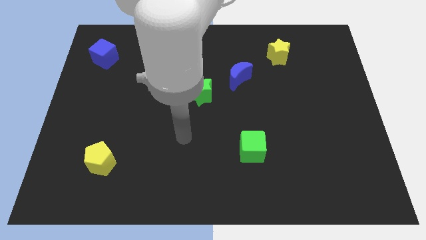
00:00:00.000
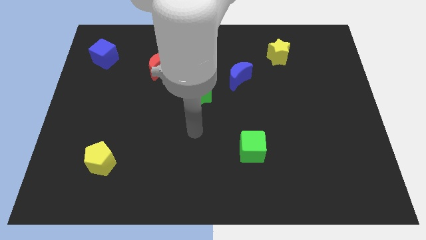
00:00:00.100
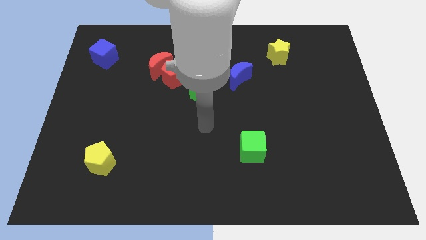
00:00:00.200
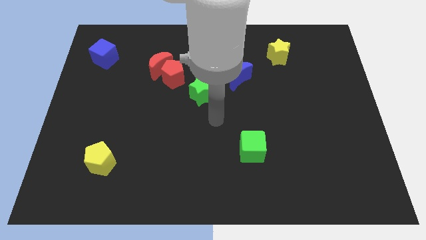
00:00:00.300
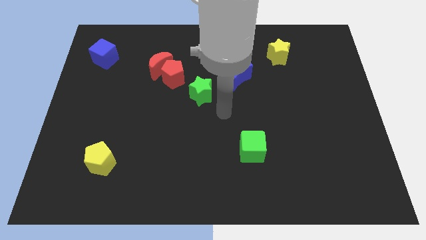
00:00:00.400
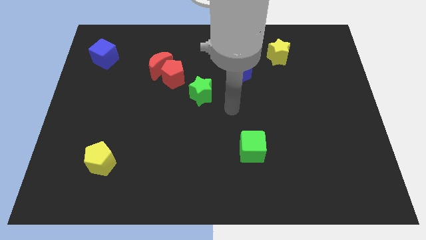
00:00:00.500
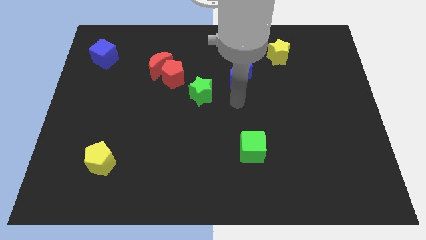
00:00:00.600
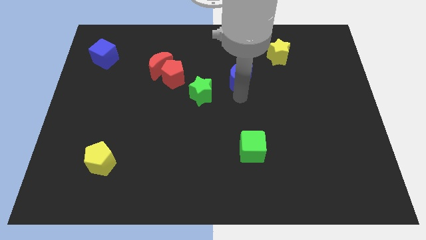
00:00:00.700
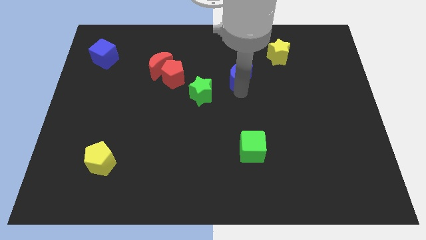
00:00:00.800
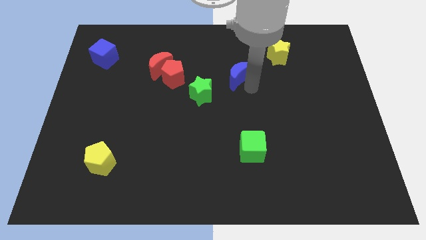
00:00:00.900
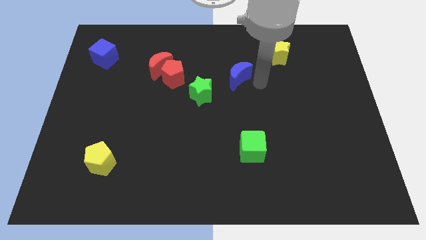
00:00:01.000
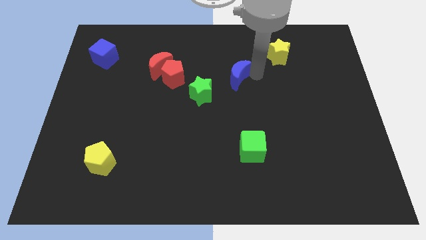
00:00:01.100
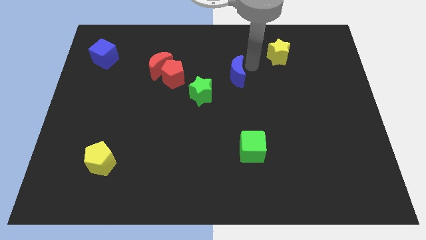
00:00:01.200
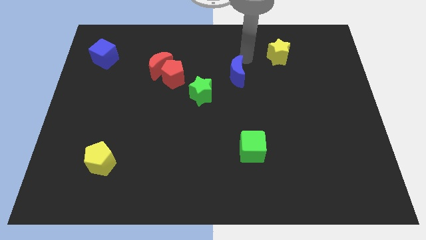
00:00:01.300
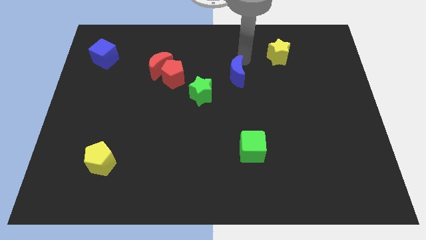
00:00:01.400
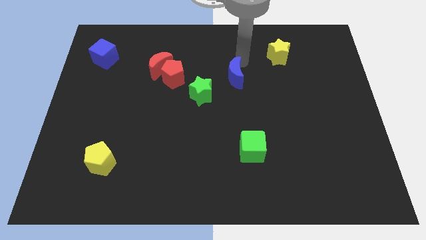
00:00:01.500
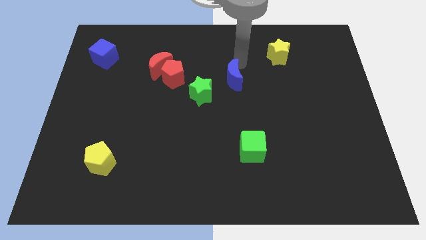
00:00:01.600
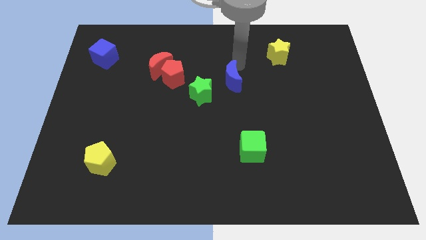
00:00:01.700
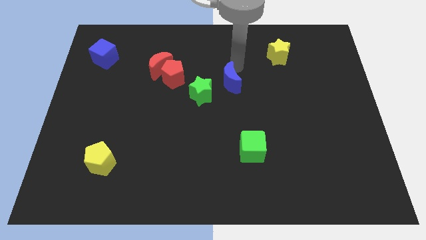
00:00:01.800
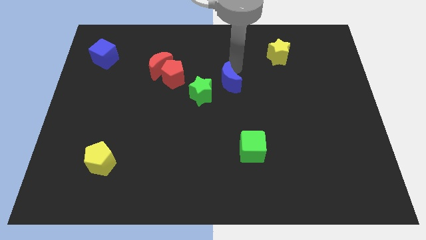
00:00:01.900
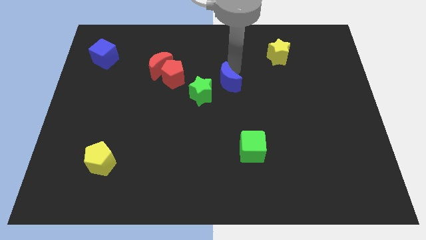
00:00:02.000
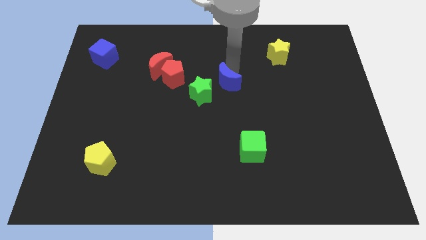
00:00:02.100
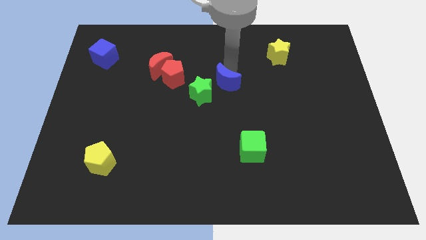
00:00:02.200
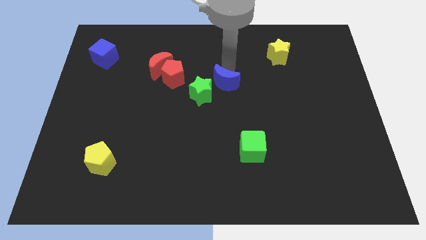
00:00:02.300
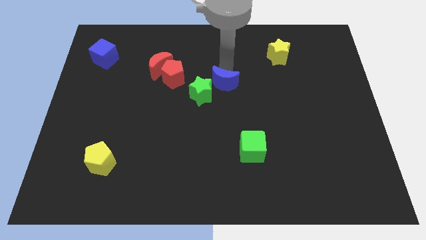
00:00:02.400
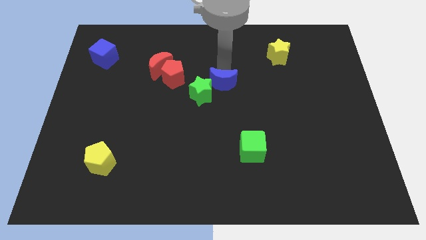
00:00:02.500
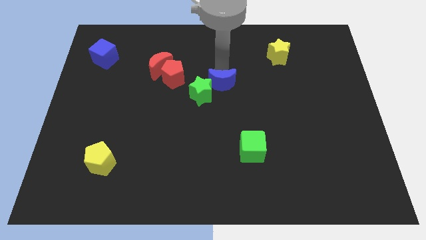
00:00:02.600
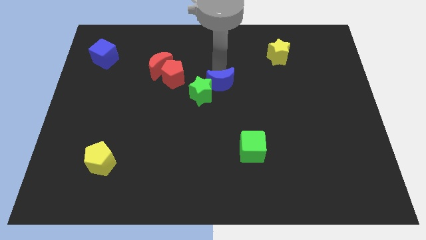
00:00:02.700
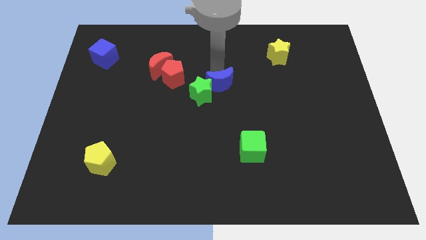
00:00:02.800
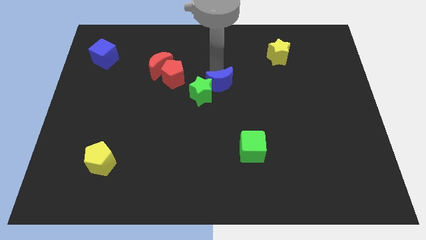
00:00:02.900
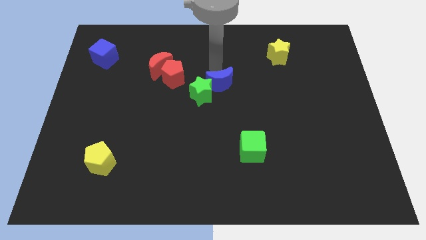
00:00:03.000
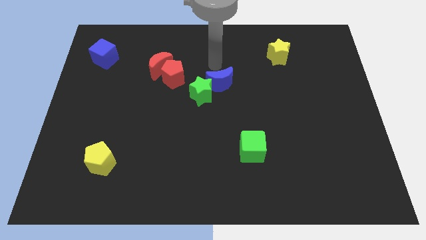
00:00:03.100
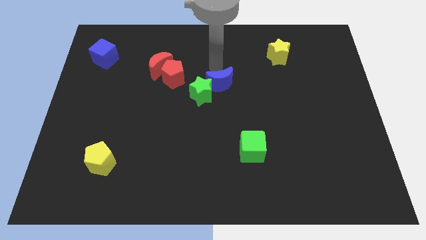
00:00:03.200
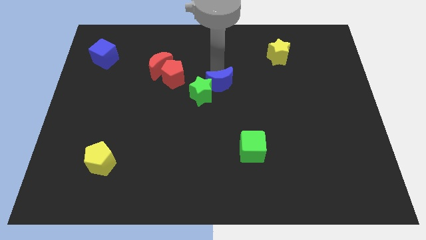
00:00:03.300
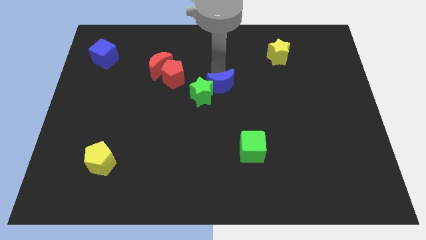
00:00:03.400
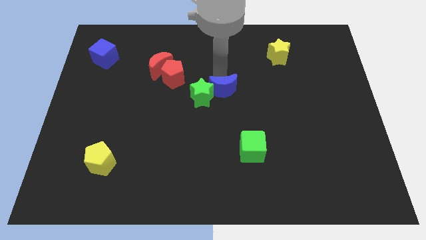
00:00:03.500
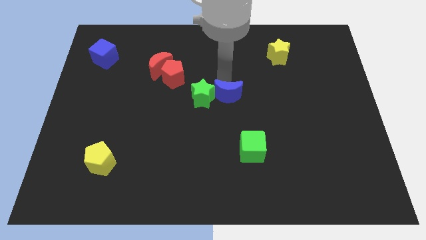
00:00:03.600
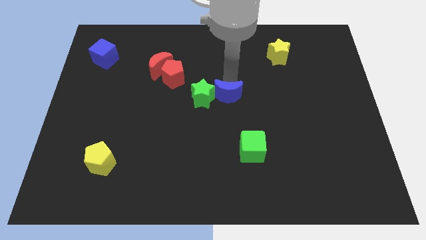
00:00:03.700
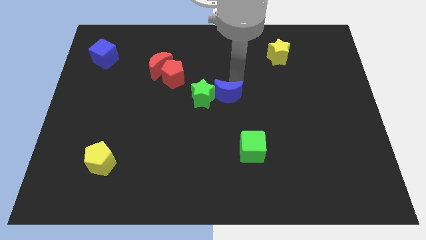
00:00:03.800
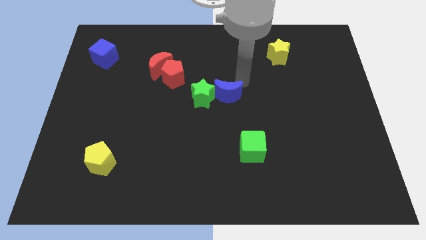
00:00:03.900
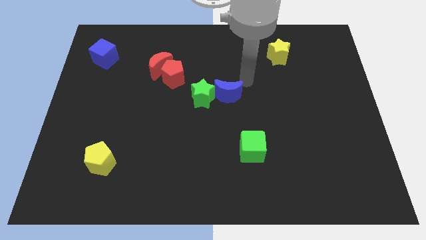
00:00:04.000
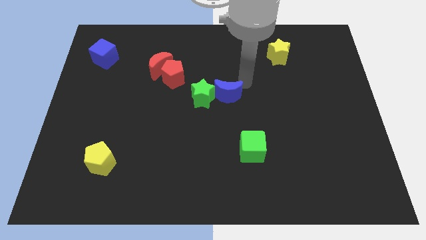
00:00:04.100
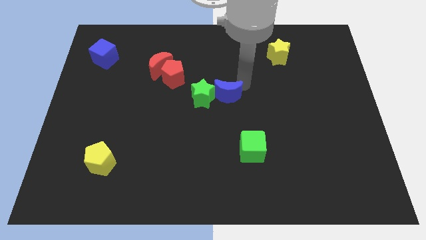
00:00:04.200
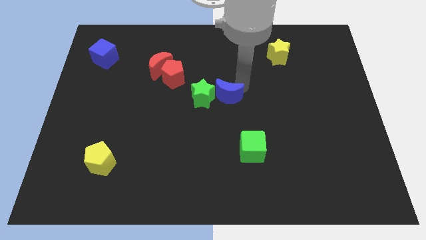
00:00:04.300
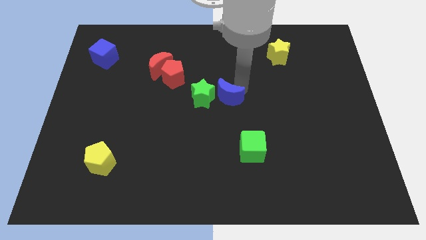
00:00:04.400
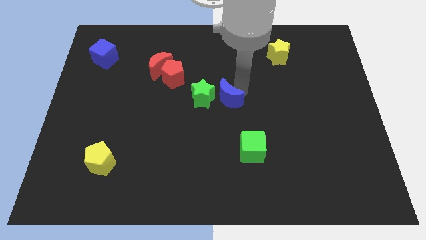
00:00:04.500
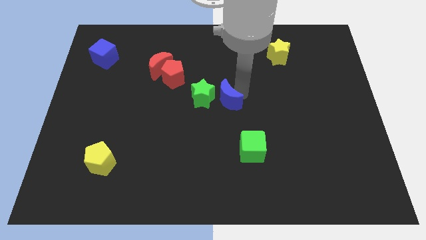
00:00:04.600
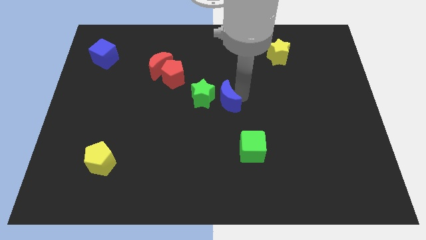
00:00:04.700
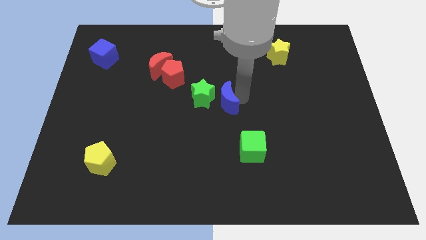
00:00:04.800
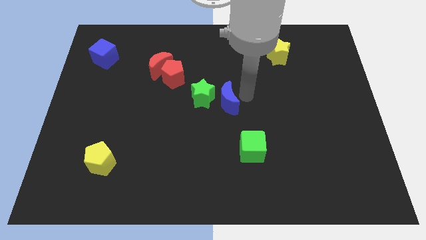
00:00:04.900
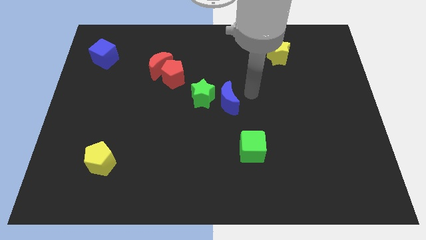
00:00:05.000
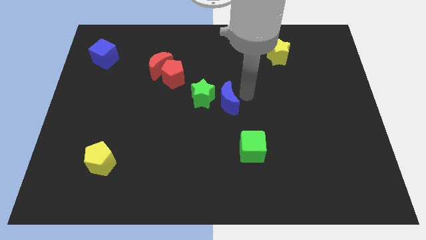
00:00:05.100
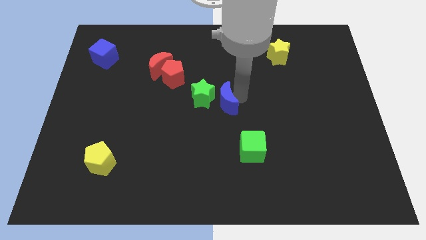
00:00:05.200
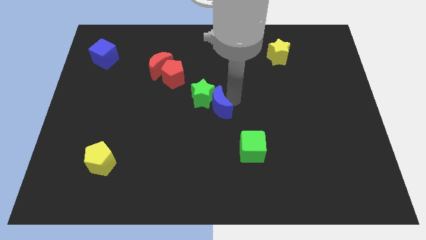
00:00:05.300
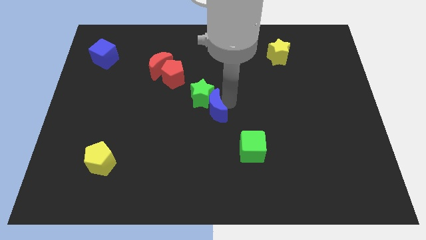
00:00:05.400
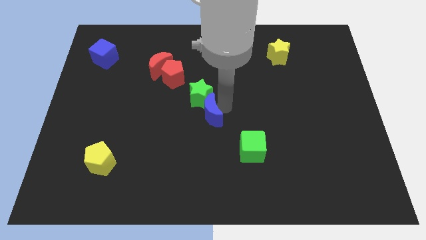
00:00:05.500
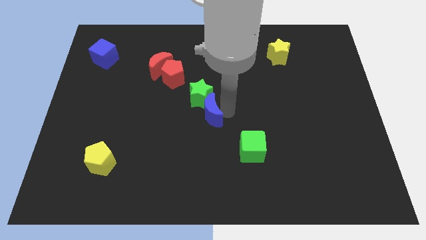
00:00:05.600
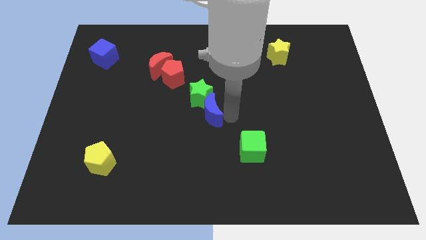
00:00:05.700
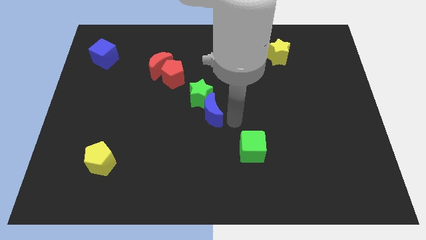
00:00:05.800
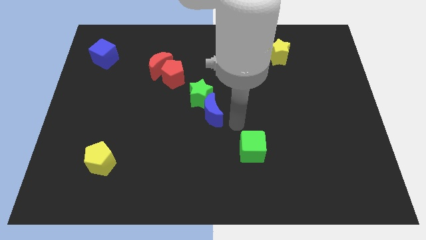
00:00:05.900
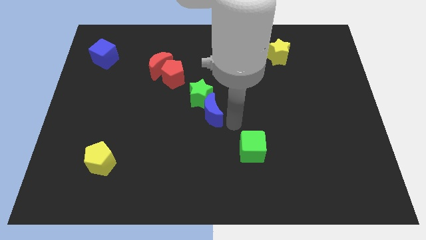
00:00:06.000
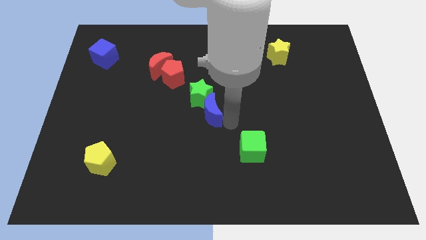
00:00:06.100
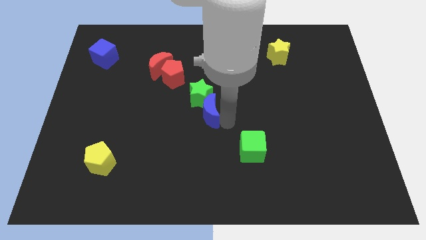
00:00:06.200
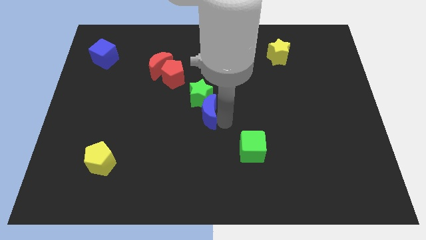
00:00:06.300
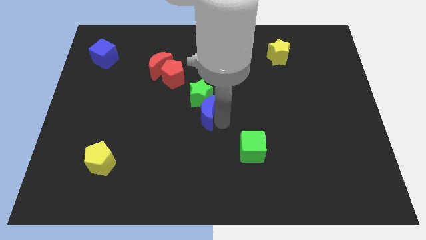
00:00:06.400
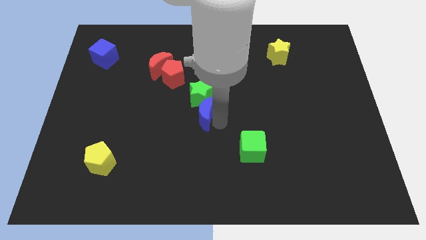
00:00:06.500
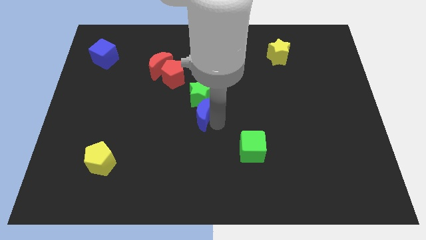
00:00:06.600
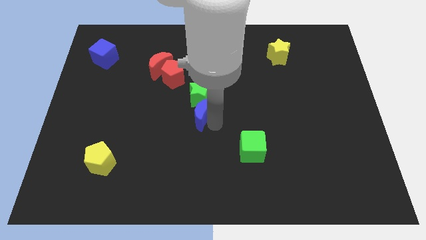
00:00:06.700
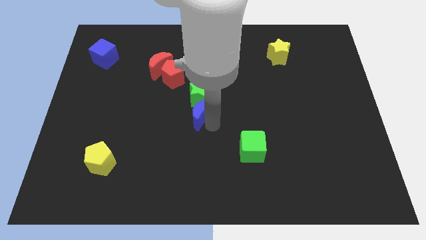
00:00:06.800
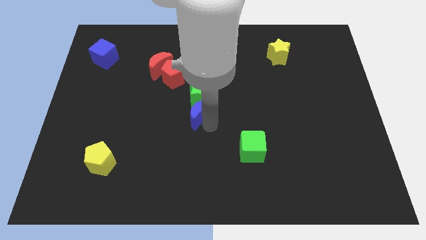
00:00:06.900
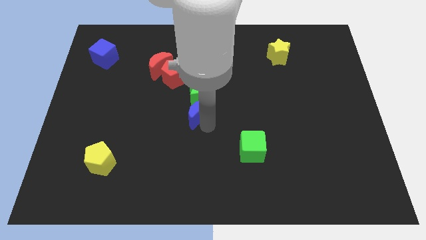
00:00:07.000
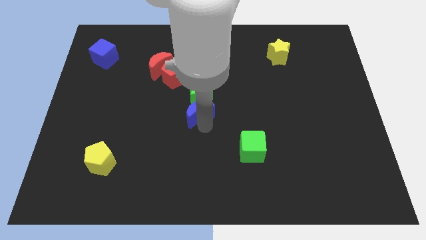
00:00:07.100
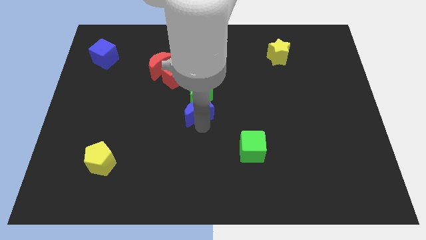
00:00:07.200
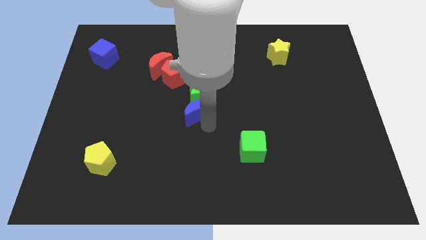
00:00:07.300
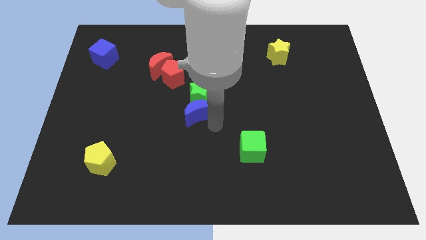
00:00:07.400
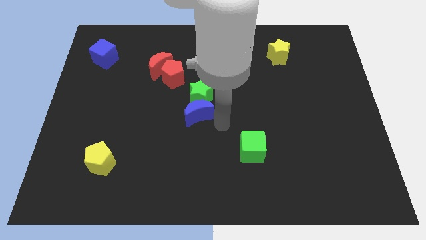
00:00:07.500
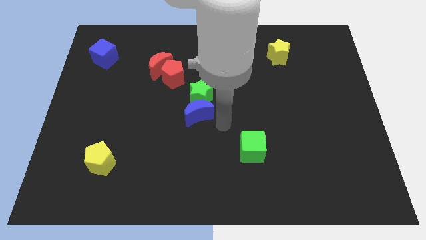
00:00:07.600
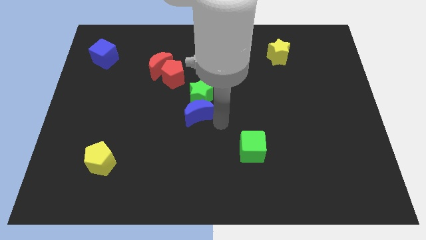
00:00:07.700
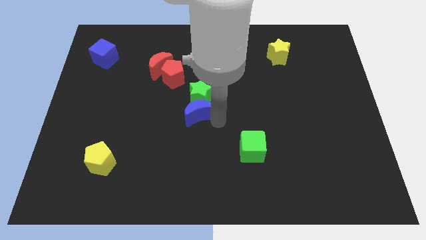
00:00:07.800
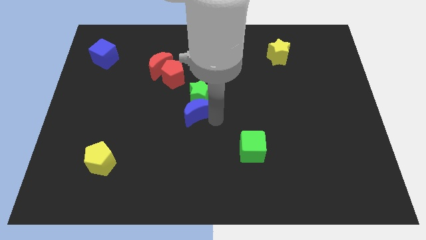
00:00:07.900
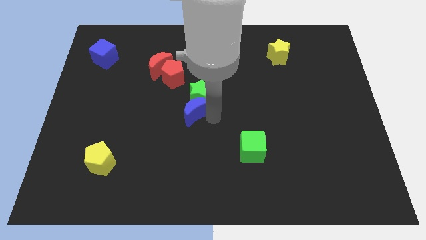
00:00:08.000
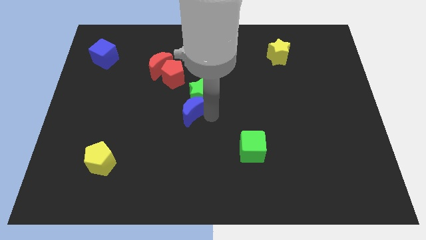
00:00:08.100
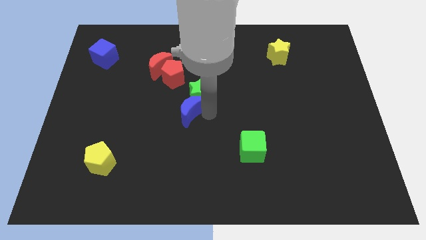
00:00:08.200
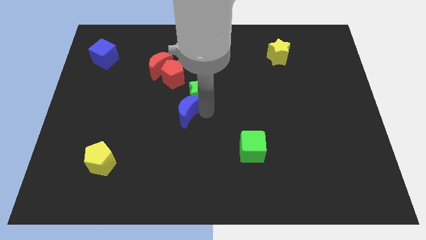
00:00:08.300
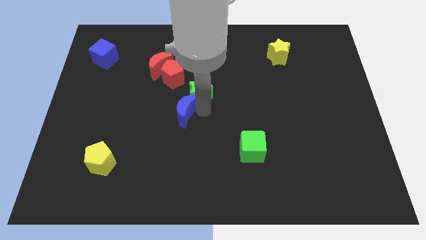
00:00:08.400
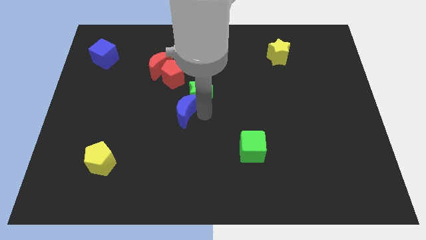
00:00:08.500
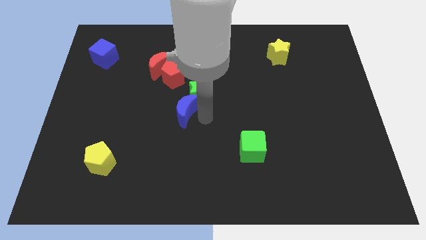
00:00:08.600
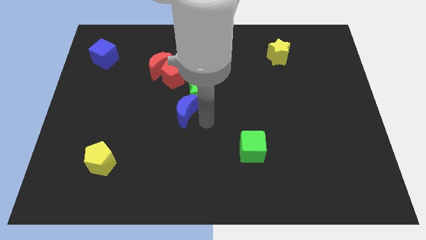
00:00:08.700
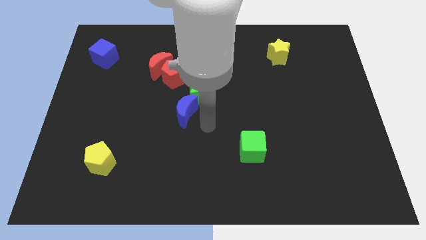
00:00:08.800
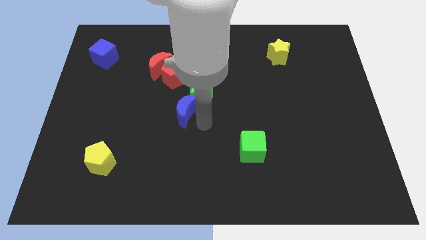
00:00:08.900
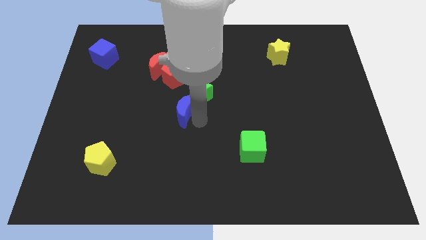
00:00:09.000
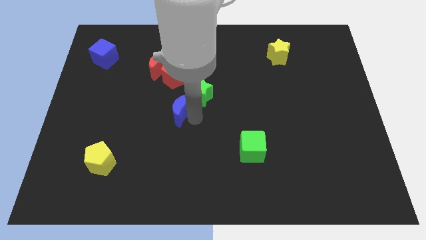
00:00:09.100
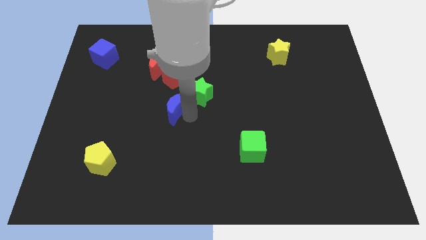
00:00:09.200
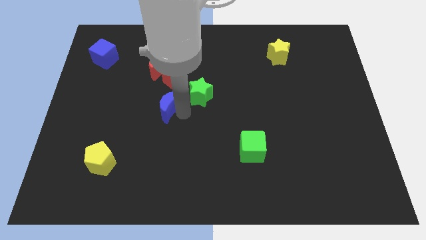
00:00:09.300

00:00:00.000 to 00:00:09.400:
move the blue moon to the bottom of the red moon
